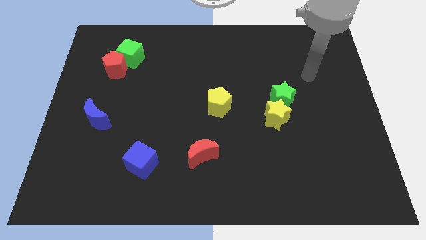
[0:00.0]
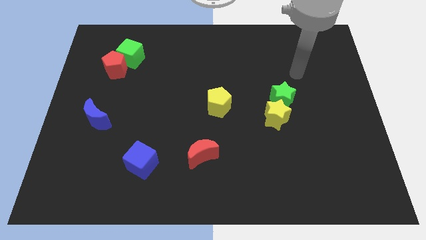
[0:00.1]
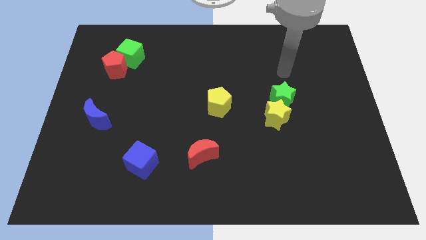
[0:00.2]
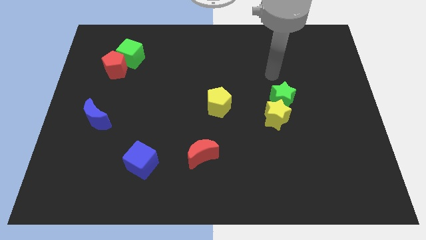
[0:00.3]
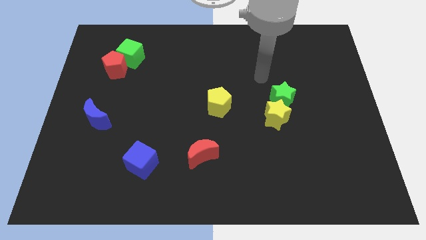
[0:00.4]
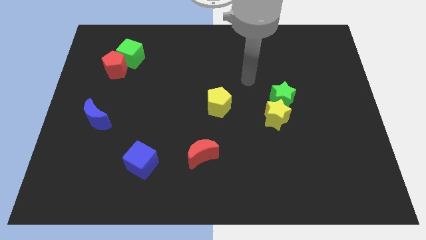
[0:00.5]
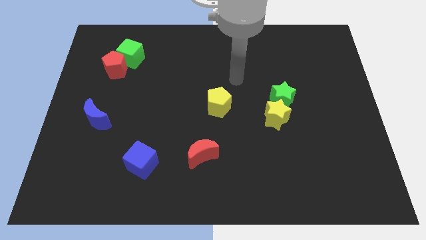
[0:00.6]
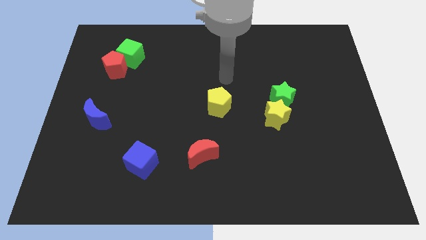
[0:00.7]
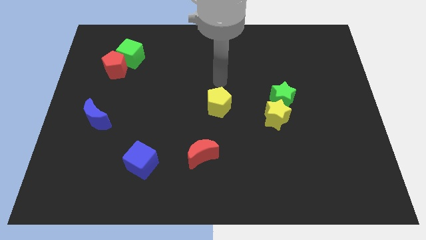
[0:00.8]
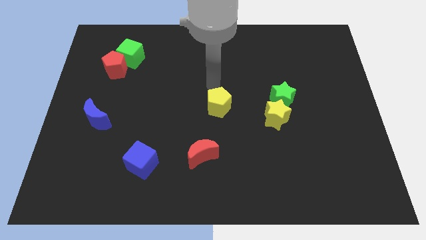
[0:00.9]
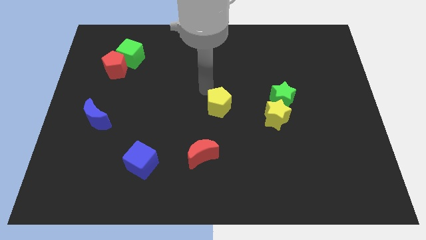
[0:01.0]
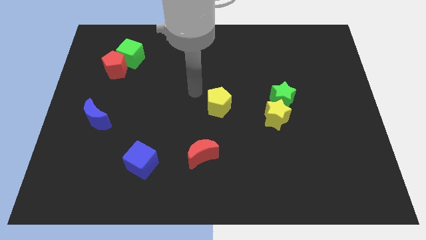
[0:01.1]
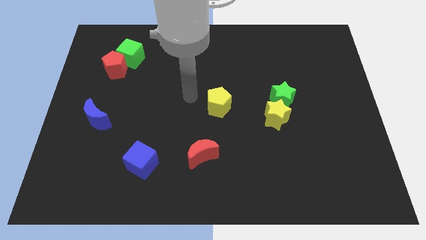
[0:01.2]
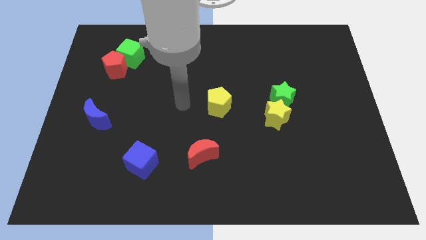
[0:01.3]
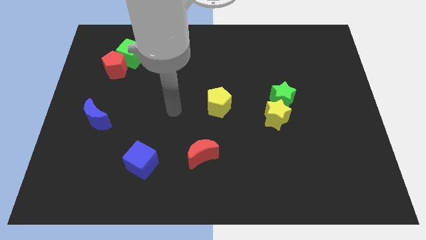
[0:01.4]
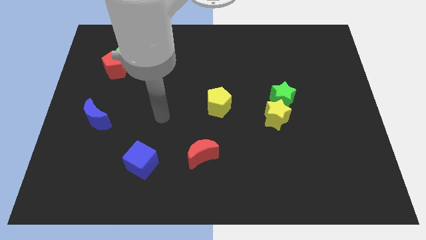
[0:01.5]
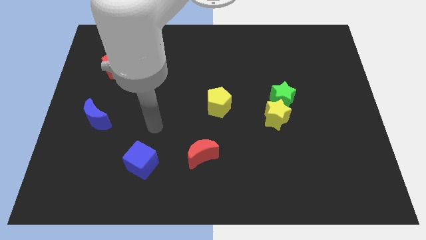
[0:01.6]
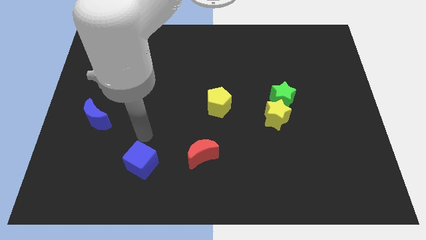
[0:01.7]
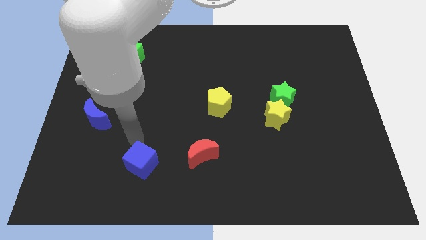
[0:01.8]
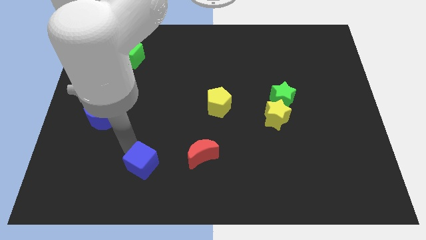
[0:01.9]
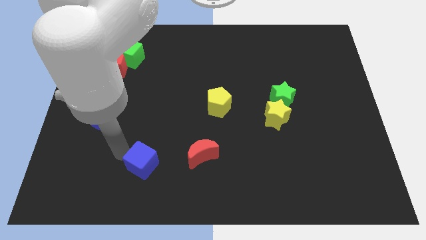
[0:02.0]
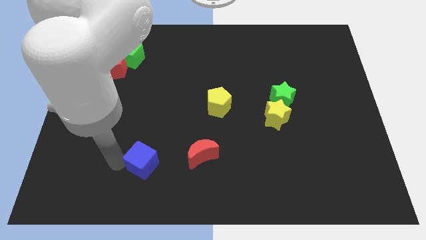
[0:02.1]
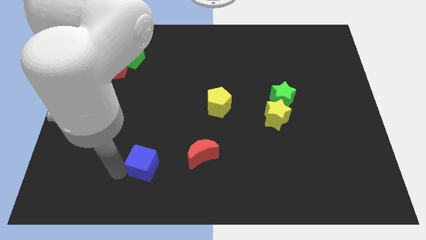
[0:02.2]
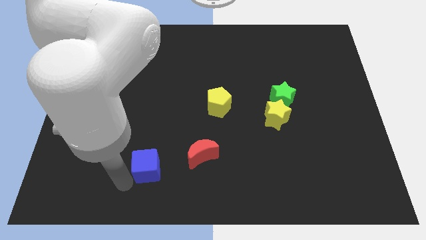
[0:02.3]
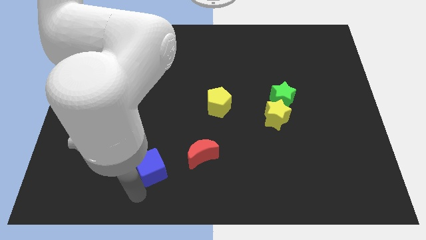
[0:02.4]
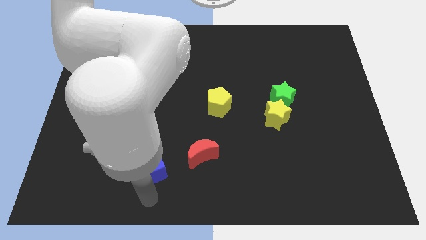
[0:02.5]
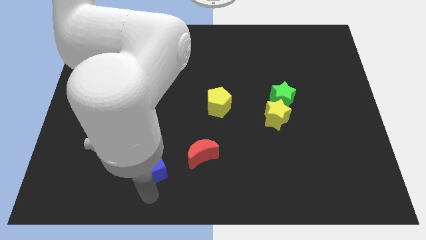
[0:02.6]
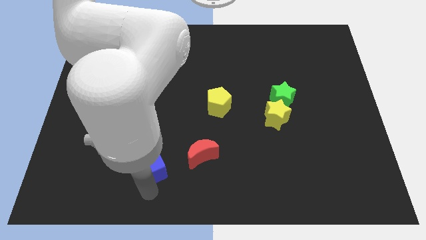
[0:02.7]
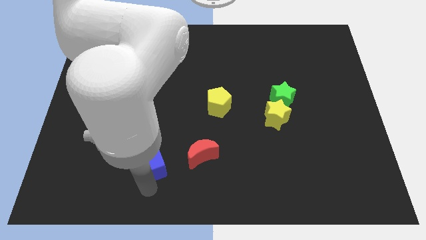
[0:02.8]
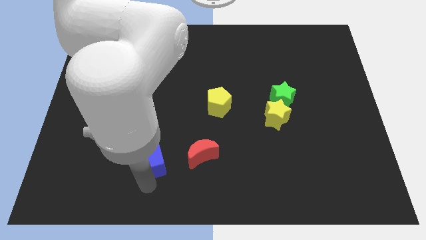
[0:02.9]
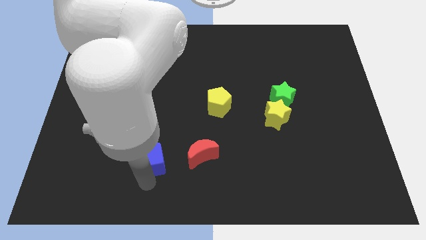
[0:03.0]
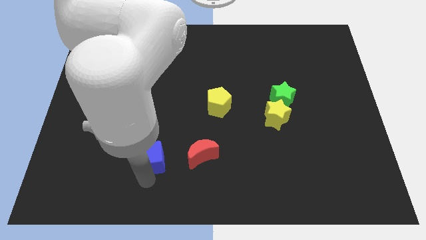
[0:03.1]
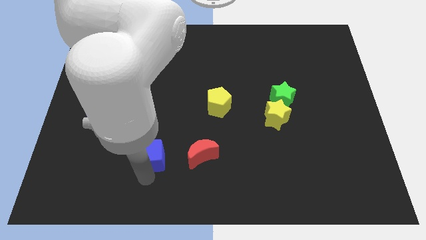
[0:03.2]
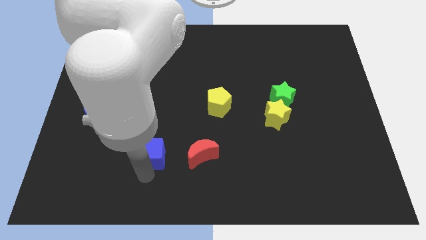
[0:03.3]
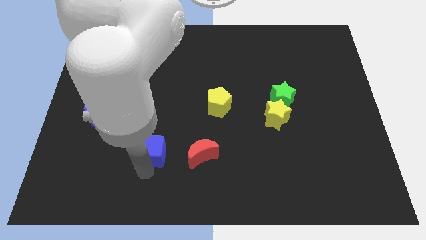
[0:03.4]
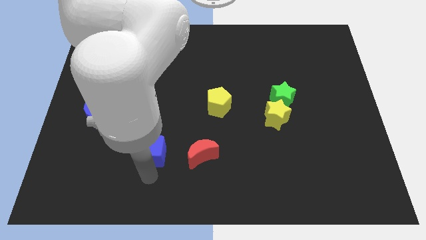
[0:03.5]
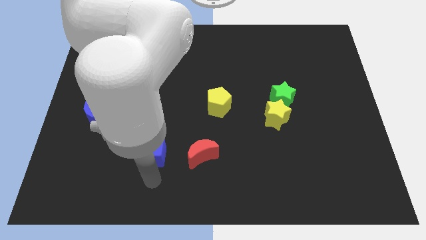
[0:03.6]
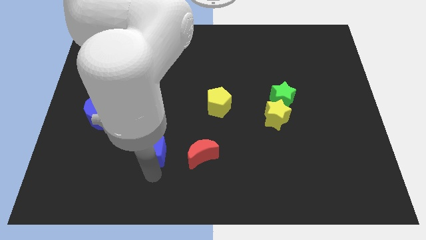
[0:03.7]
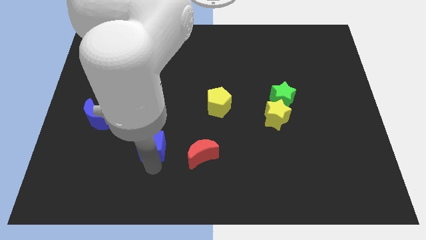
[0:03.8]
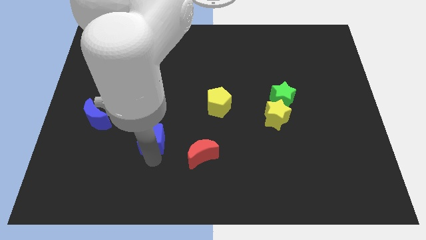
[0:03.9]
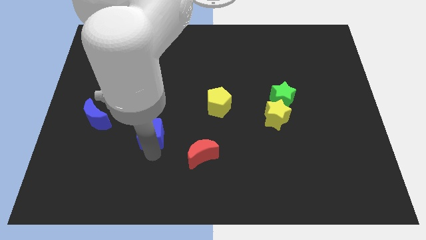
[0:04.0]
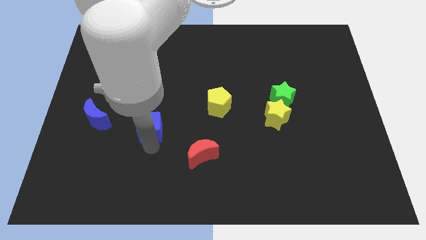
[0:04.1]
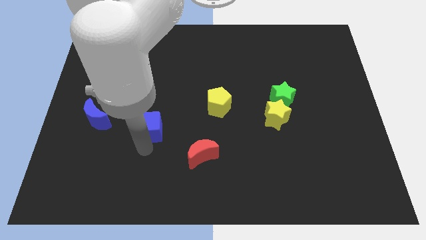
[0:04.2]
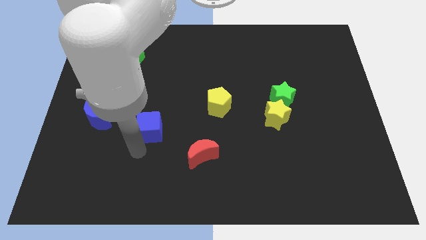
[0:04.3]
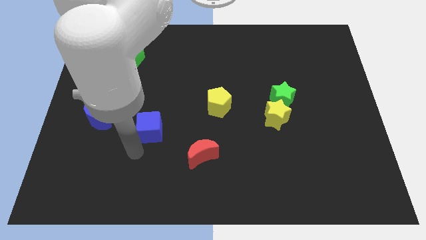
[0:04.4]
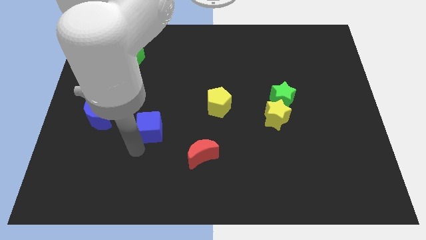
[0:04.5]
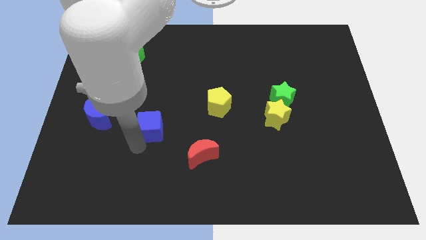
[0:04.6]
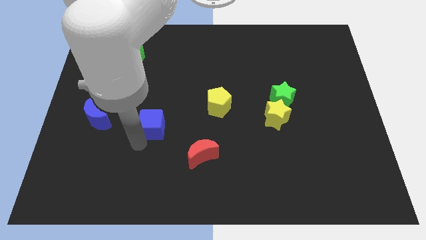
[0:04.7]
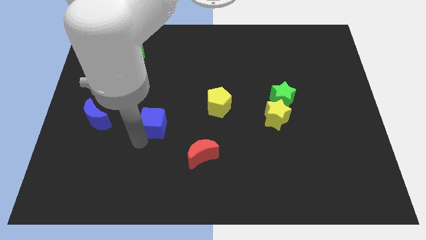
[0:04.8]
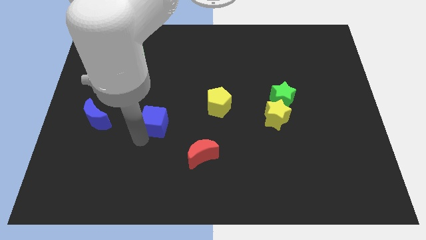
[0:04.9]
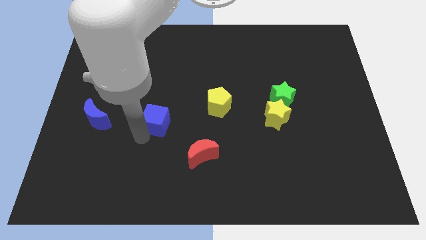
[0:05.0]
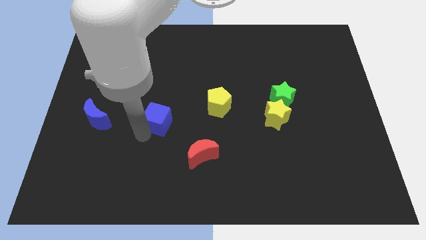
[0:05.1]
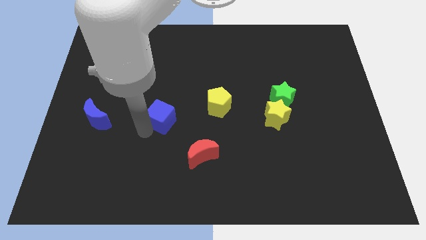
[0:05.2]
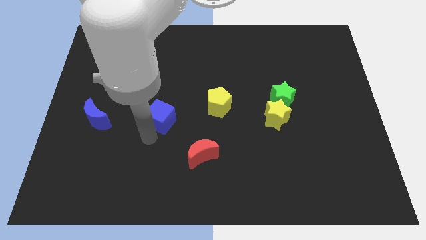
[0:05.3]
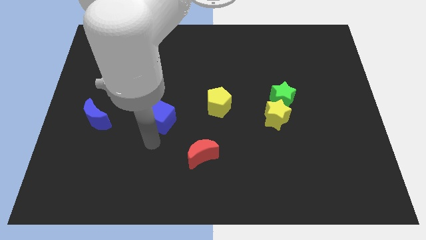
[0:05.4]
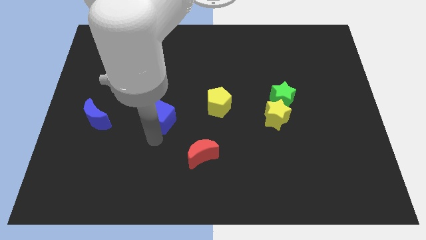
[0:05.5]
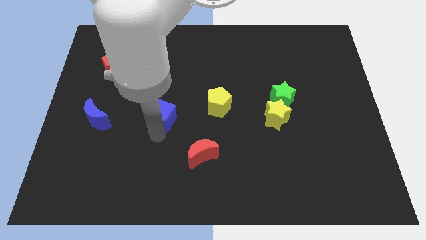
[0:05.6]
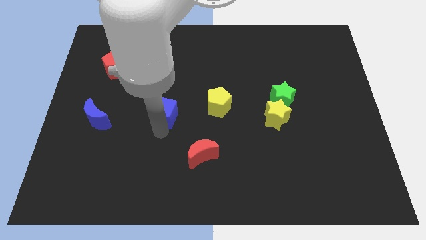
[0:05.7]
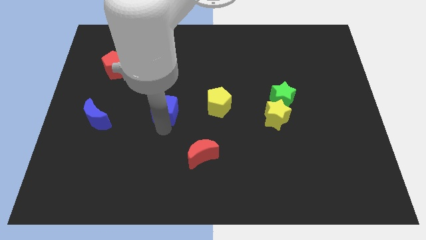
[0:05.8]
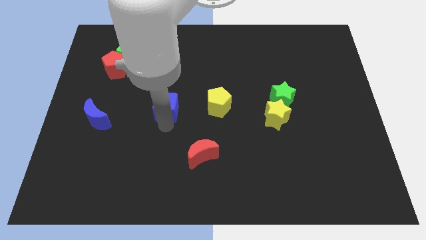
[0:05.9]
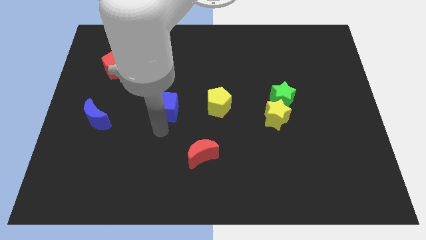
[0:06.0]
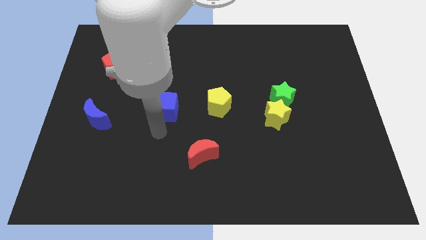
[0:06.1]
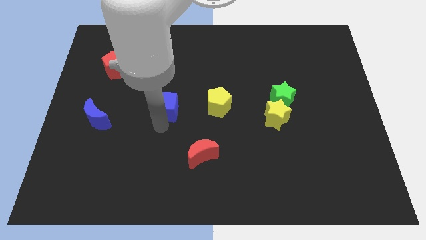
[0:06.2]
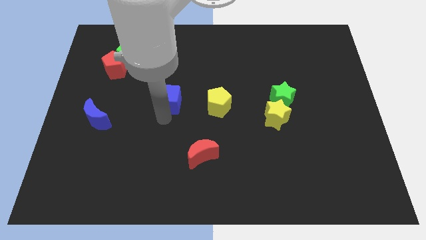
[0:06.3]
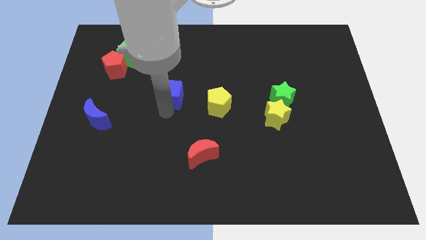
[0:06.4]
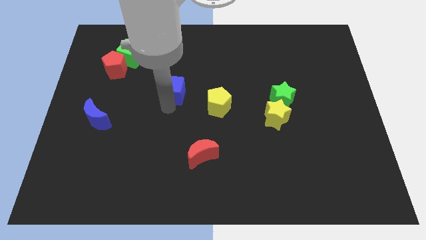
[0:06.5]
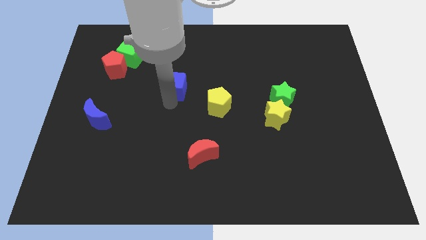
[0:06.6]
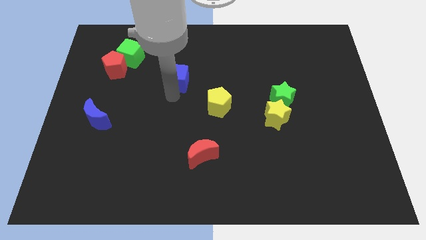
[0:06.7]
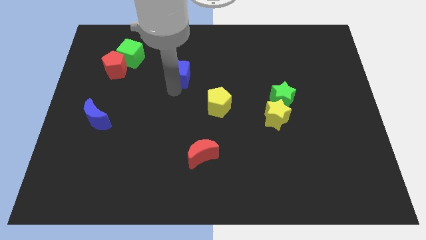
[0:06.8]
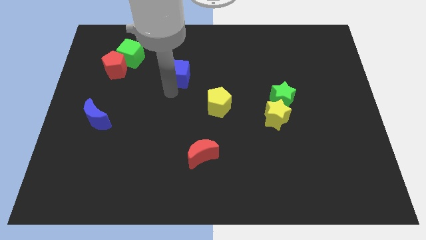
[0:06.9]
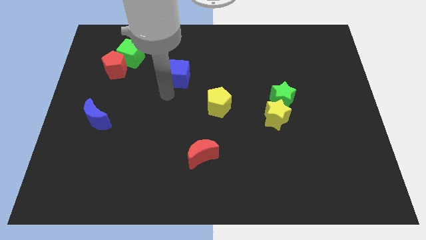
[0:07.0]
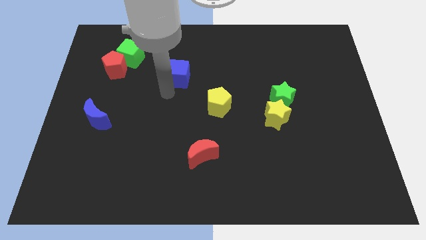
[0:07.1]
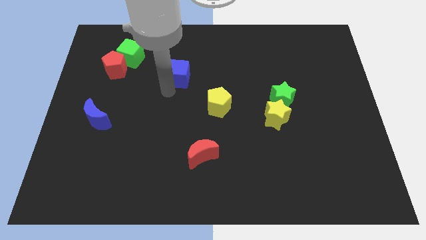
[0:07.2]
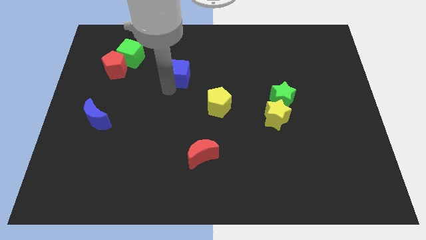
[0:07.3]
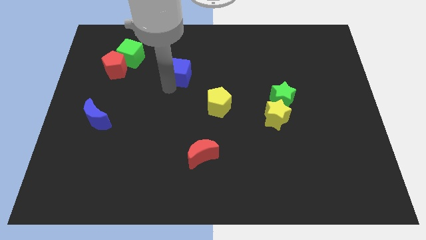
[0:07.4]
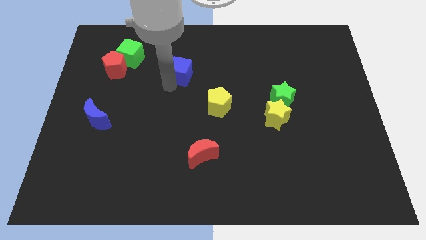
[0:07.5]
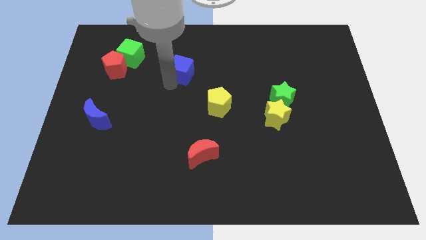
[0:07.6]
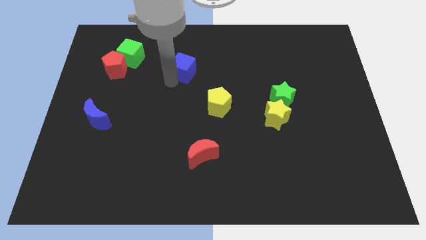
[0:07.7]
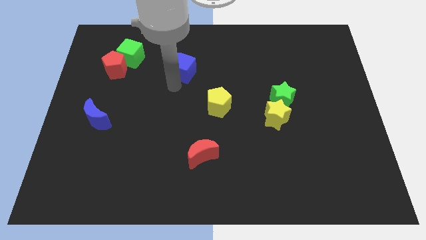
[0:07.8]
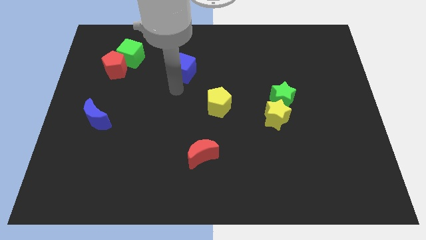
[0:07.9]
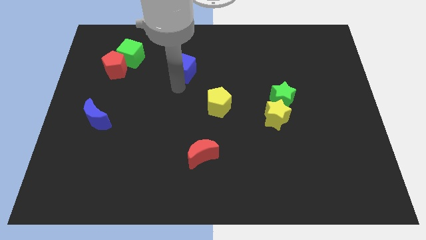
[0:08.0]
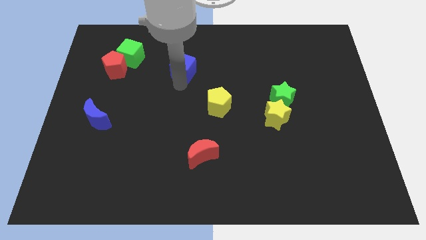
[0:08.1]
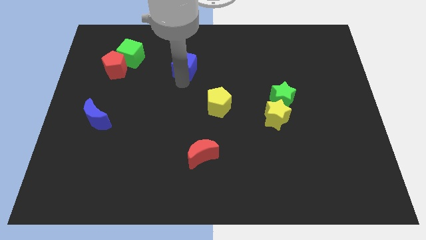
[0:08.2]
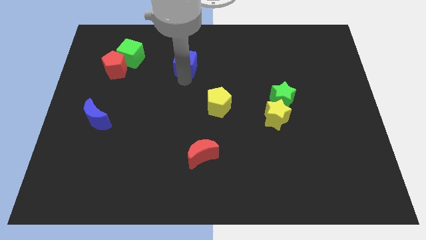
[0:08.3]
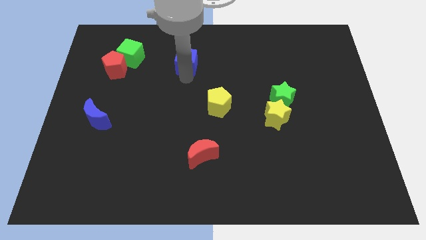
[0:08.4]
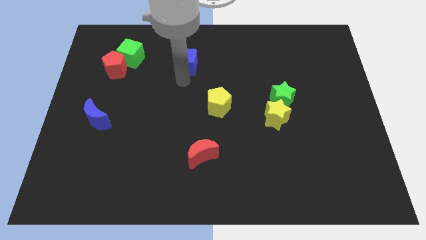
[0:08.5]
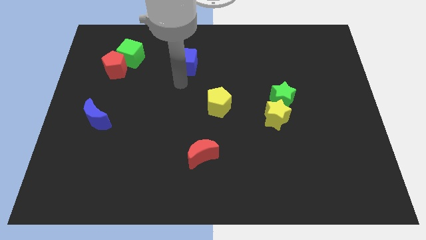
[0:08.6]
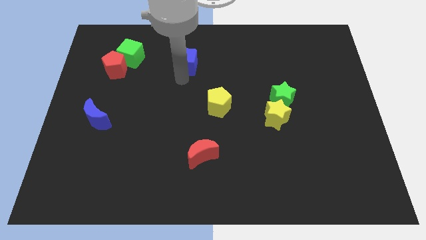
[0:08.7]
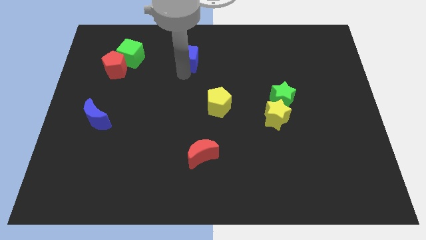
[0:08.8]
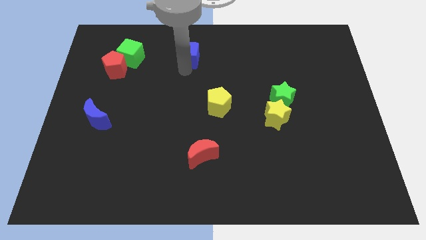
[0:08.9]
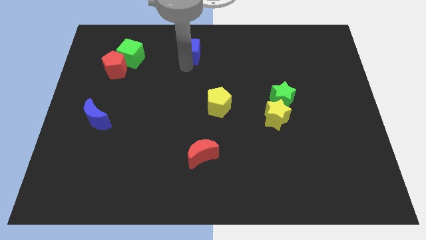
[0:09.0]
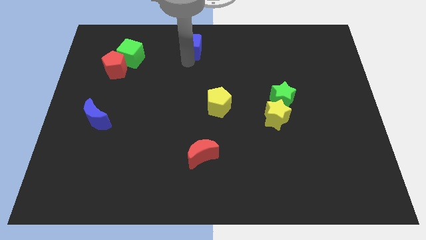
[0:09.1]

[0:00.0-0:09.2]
slide the blue cube to the top side
